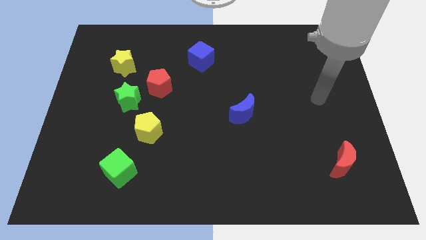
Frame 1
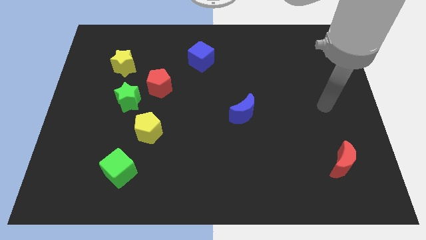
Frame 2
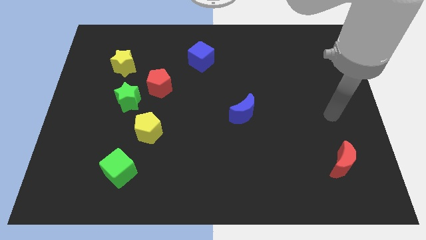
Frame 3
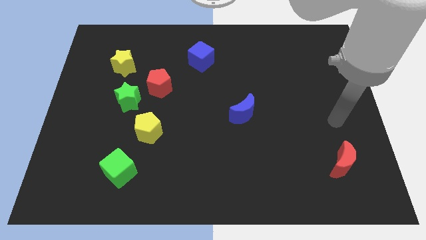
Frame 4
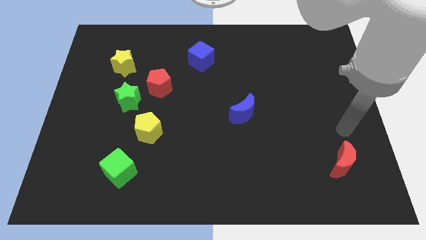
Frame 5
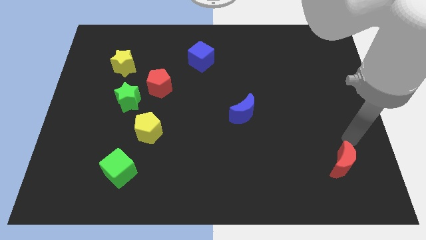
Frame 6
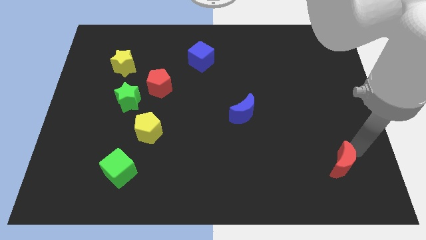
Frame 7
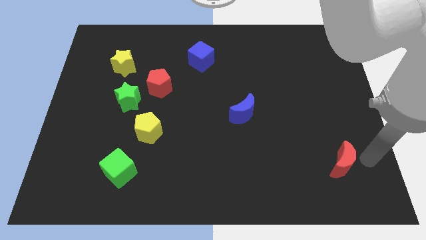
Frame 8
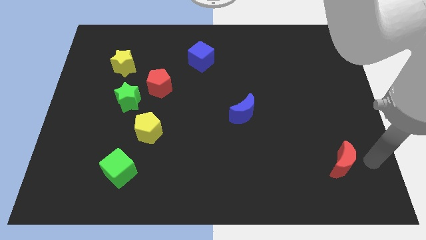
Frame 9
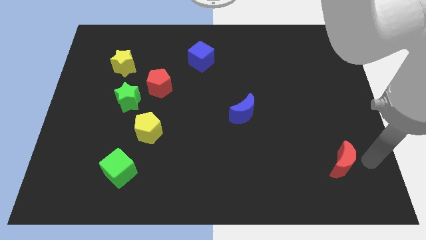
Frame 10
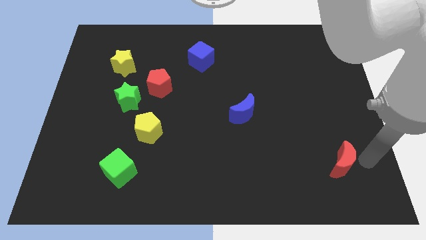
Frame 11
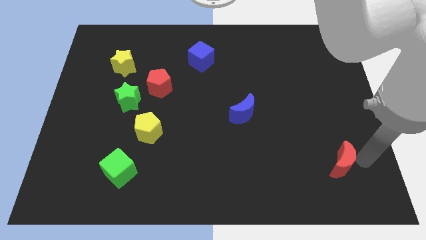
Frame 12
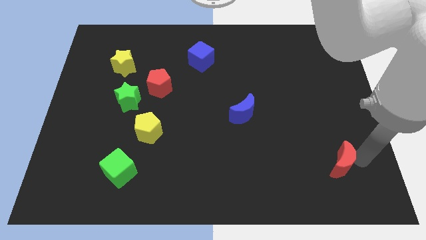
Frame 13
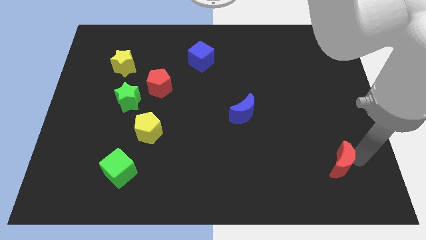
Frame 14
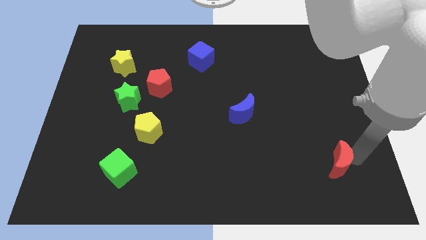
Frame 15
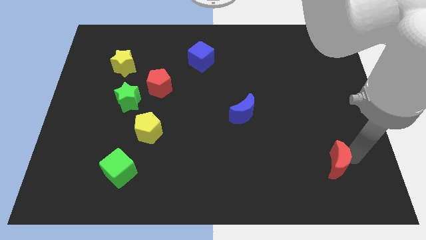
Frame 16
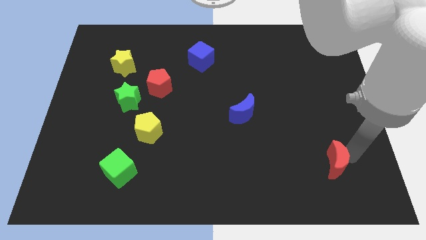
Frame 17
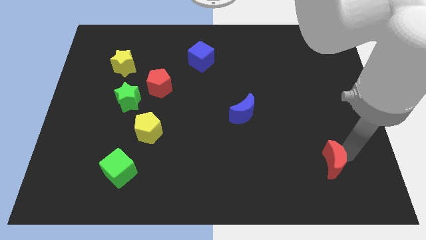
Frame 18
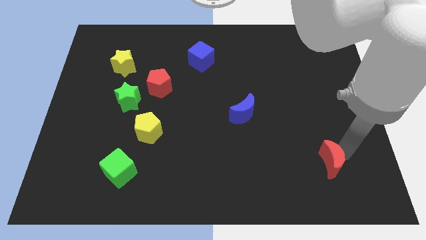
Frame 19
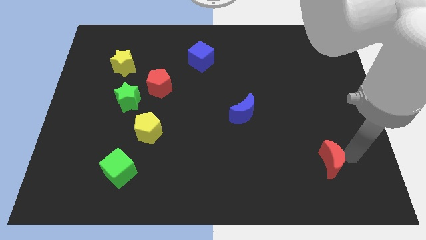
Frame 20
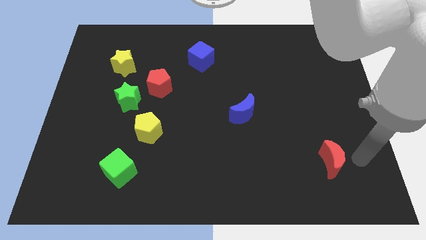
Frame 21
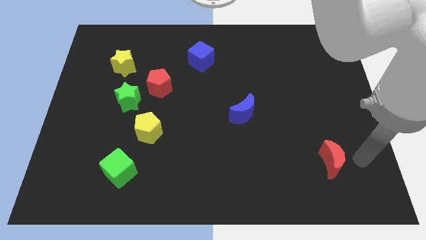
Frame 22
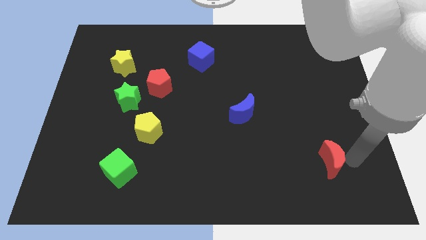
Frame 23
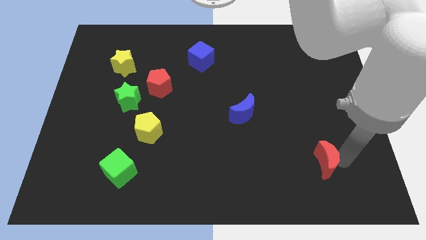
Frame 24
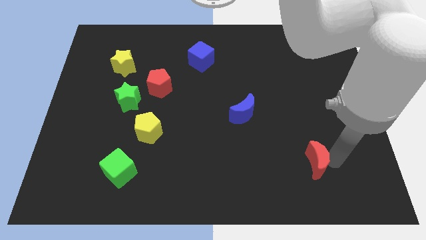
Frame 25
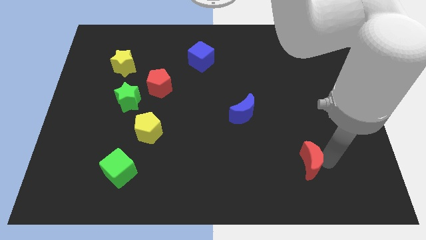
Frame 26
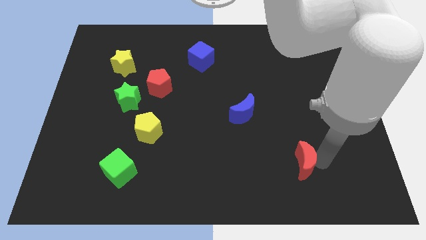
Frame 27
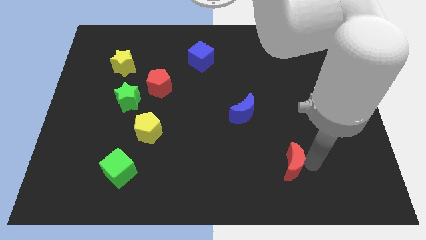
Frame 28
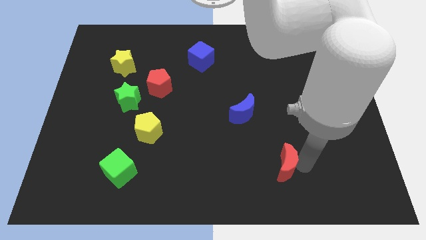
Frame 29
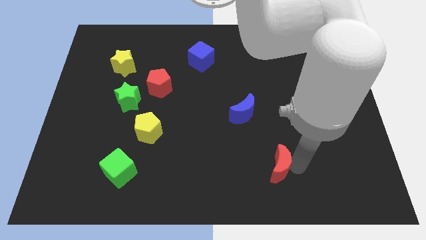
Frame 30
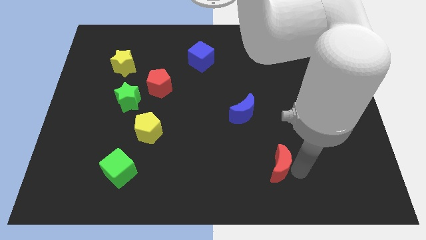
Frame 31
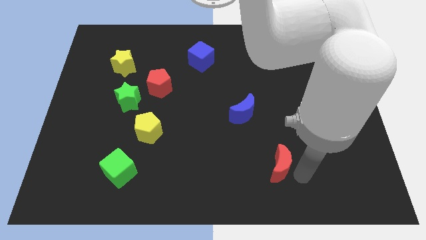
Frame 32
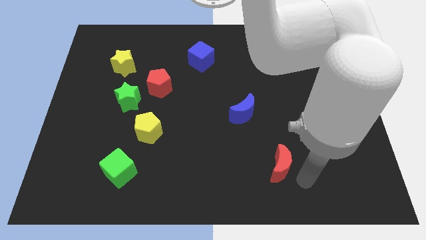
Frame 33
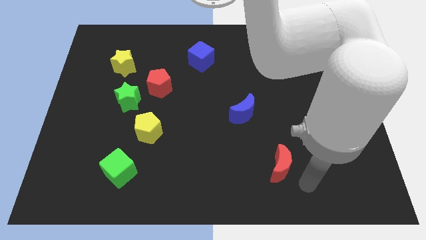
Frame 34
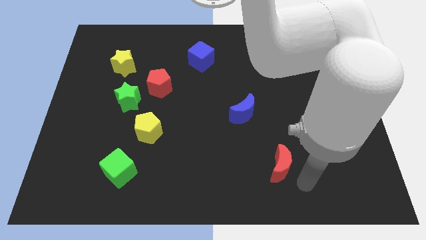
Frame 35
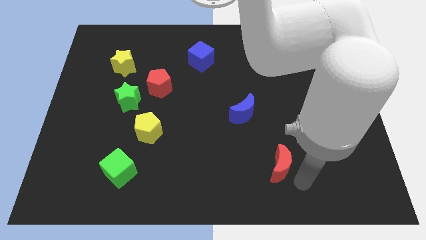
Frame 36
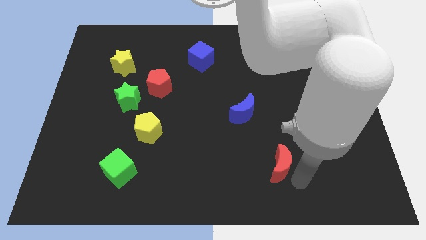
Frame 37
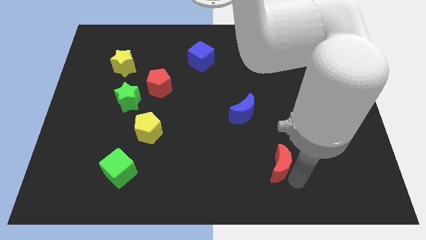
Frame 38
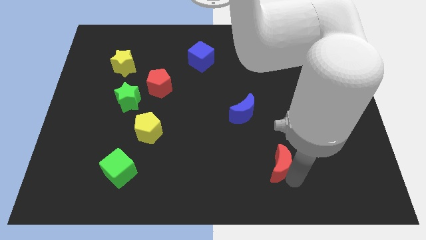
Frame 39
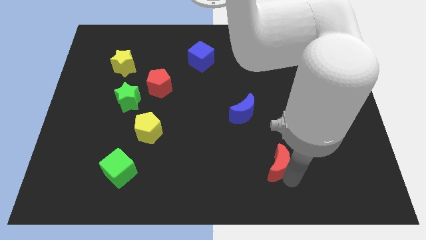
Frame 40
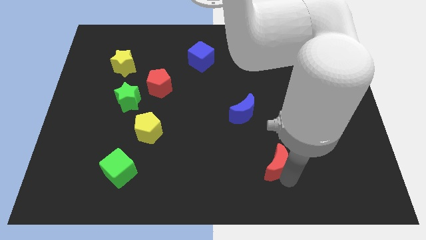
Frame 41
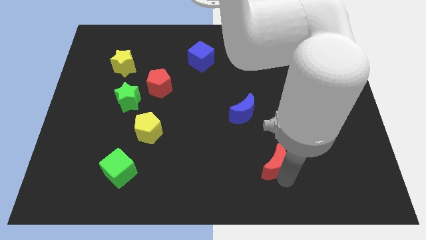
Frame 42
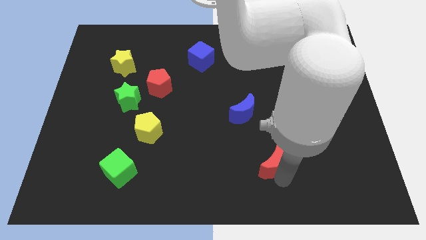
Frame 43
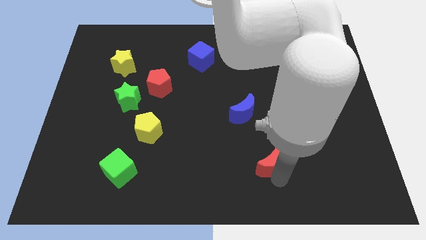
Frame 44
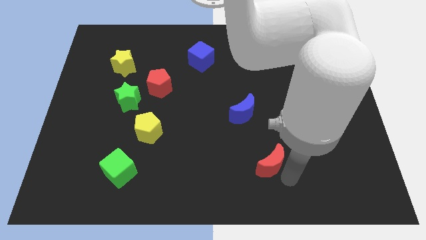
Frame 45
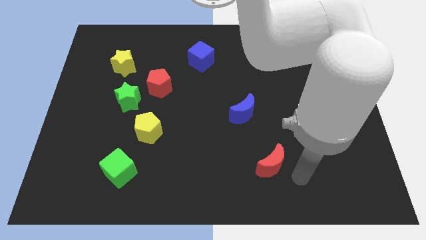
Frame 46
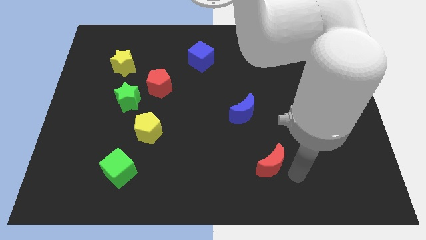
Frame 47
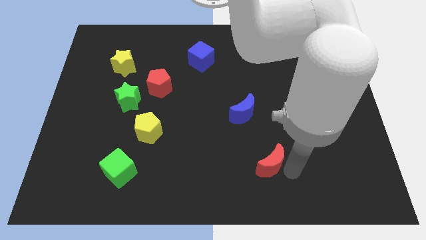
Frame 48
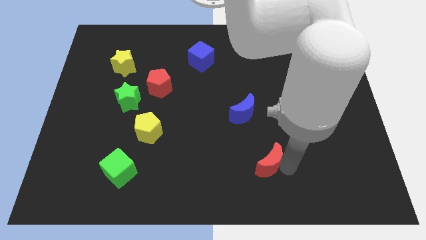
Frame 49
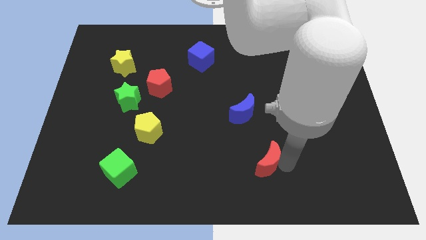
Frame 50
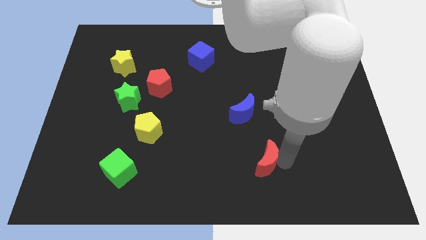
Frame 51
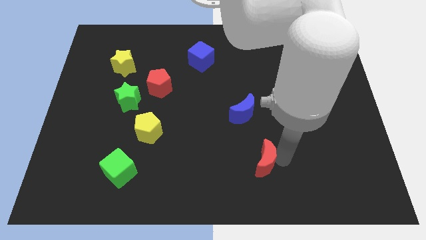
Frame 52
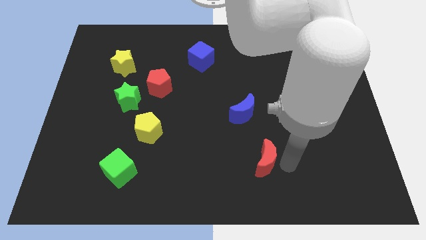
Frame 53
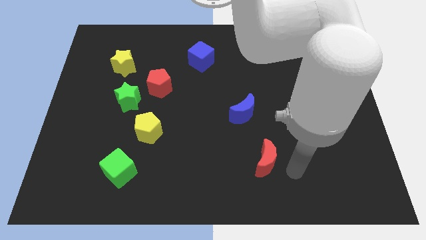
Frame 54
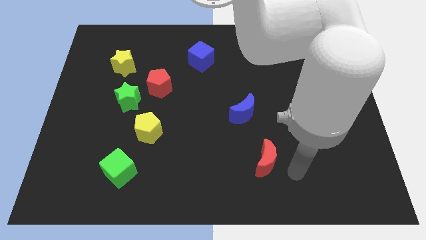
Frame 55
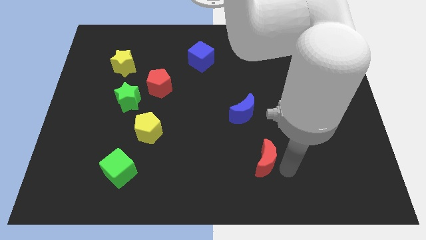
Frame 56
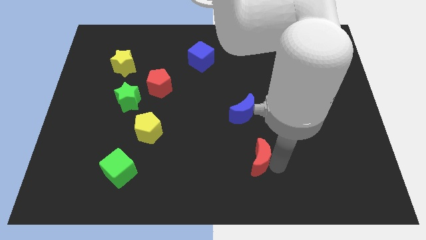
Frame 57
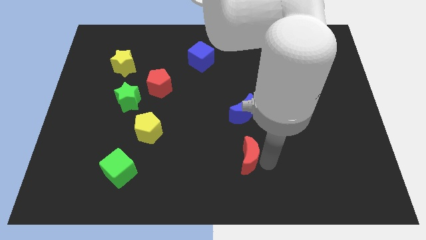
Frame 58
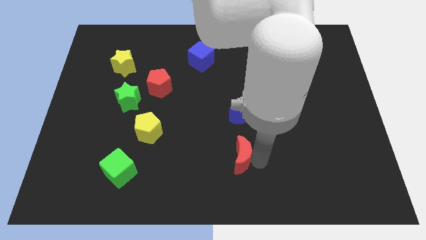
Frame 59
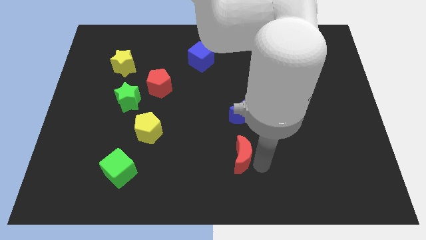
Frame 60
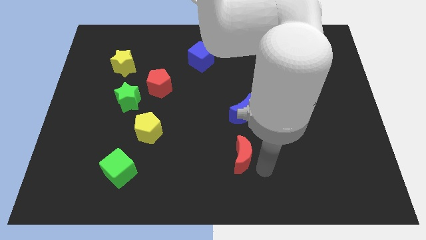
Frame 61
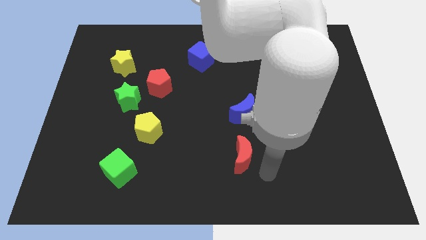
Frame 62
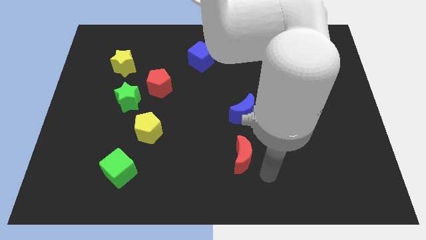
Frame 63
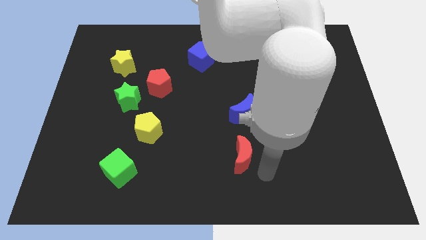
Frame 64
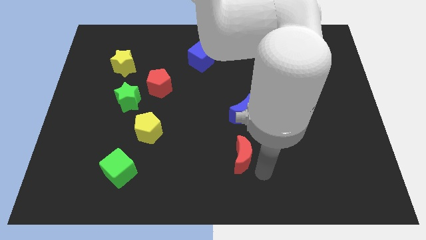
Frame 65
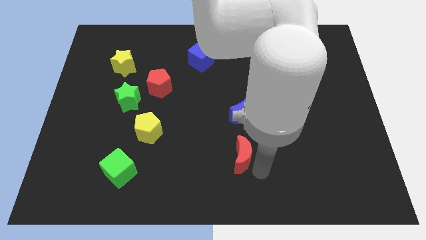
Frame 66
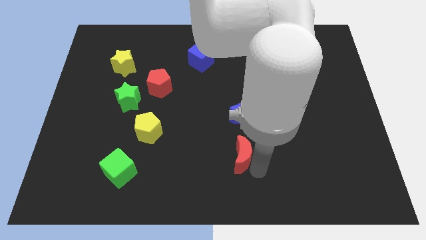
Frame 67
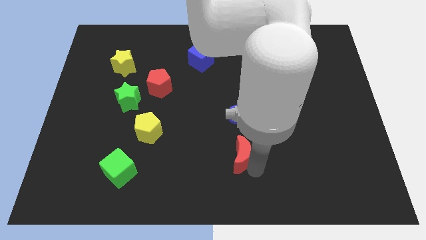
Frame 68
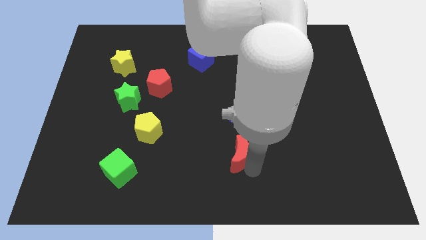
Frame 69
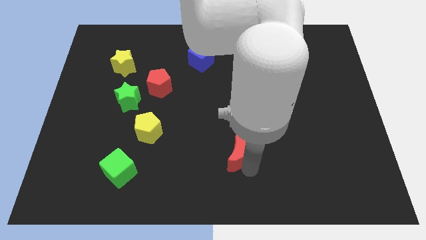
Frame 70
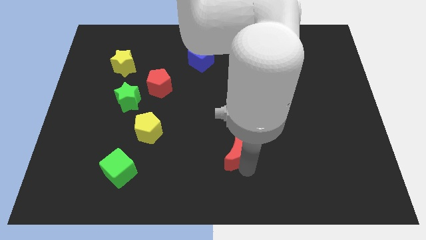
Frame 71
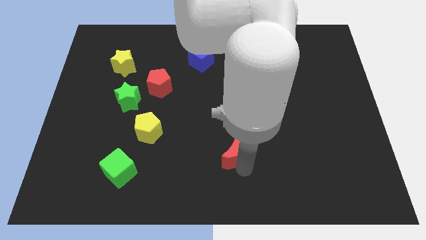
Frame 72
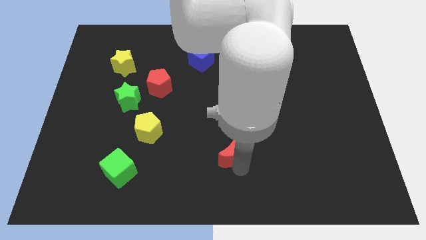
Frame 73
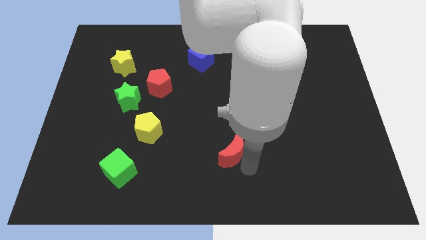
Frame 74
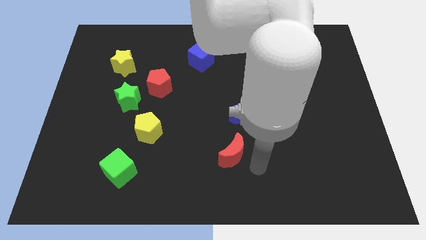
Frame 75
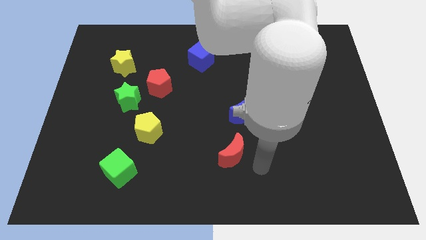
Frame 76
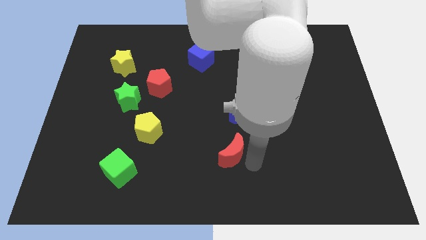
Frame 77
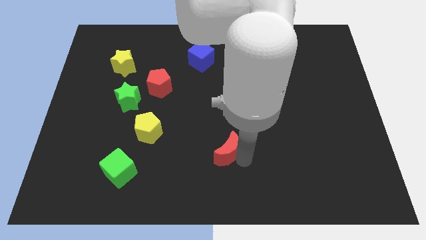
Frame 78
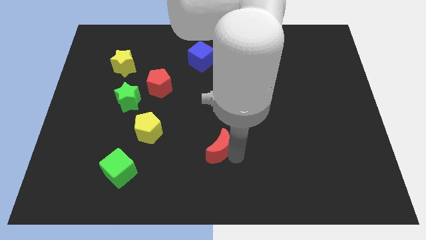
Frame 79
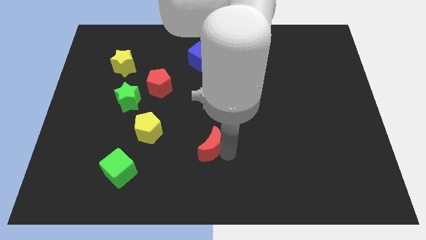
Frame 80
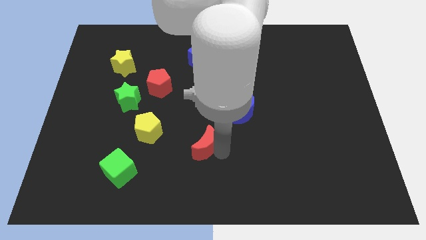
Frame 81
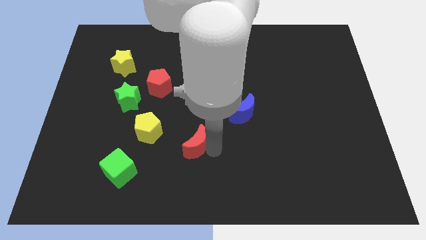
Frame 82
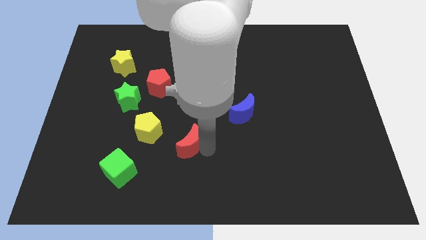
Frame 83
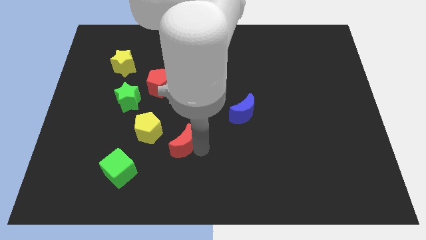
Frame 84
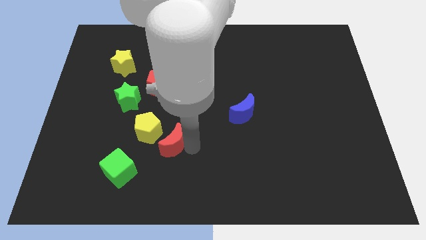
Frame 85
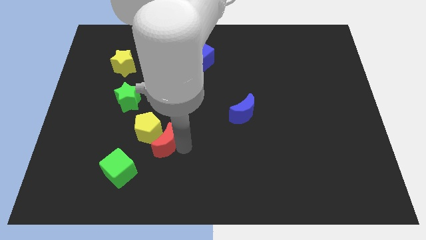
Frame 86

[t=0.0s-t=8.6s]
slide the red moon towards the yellow pentagon
